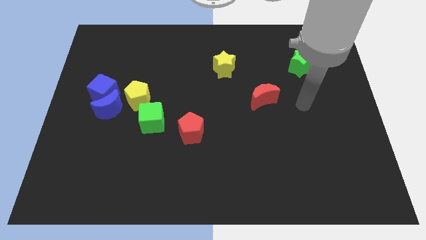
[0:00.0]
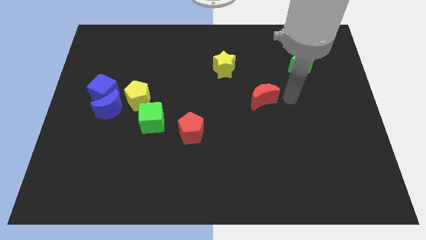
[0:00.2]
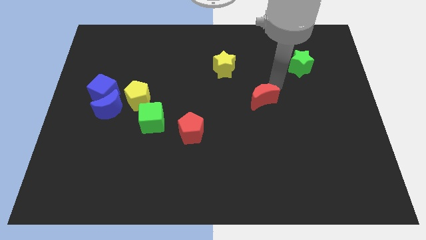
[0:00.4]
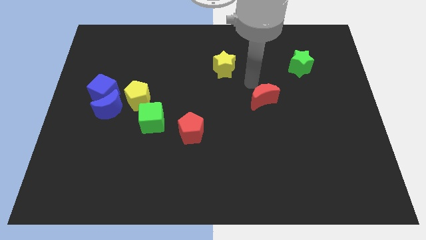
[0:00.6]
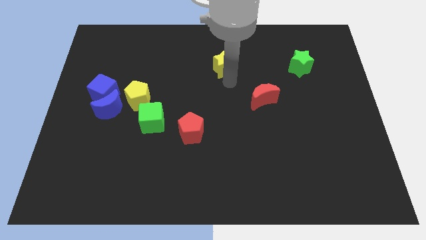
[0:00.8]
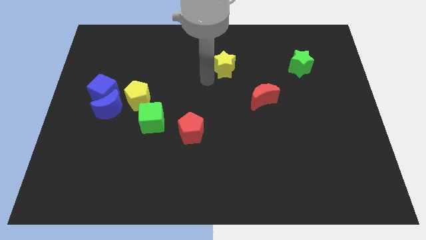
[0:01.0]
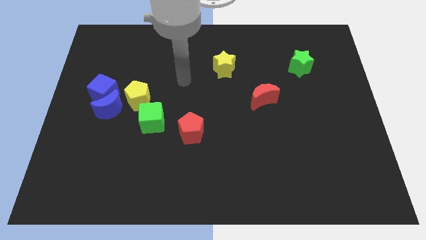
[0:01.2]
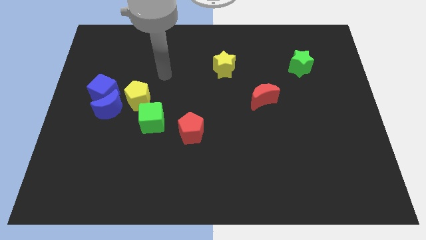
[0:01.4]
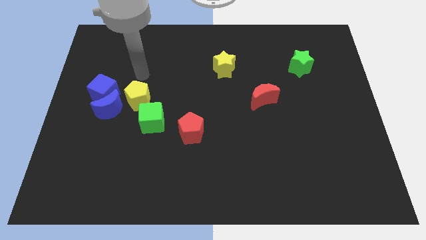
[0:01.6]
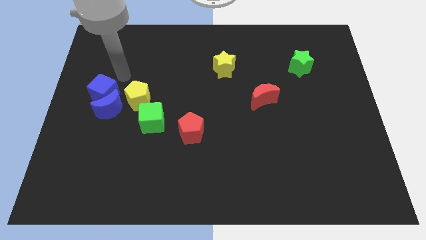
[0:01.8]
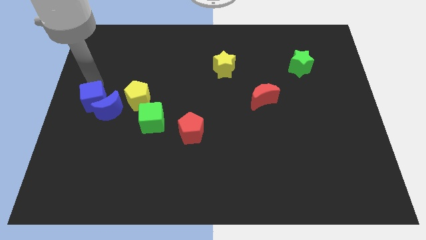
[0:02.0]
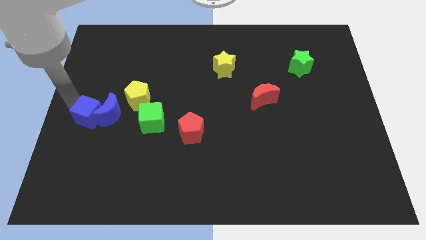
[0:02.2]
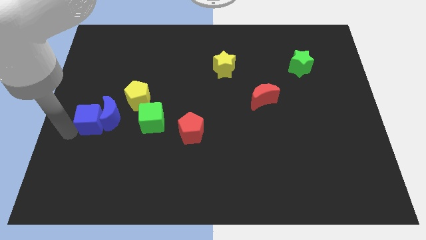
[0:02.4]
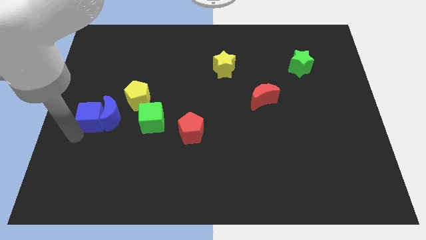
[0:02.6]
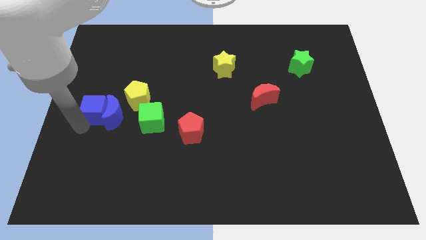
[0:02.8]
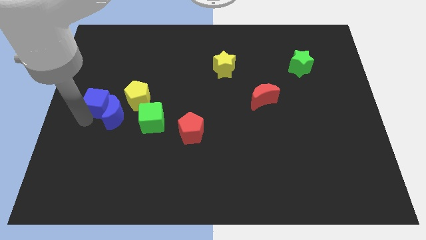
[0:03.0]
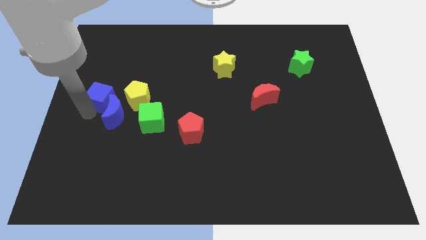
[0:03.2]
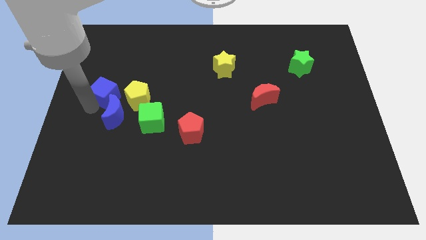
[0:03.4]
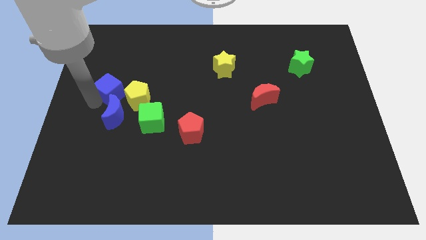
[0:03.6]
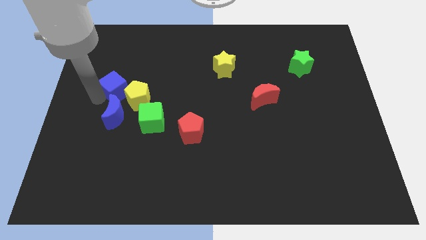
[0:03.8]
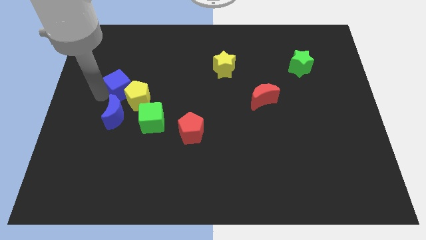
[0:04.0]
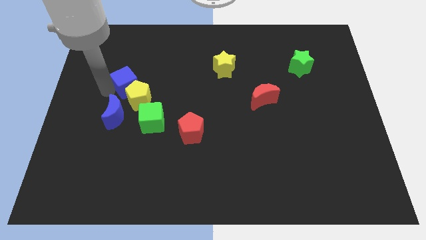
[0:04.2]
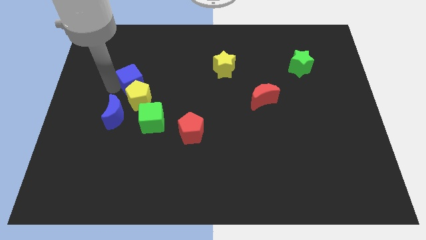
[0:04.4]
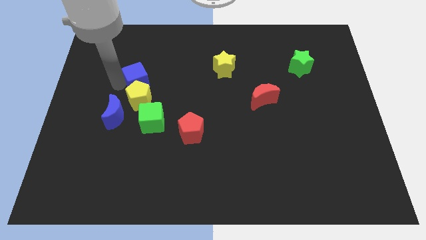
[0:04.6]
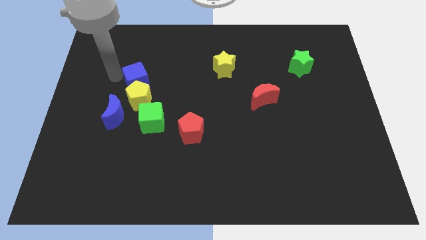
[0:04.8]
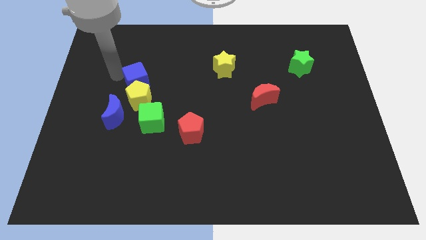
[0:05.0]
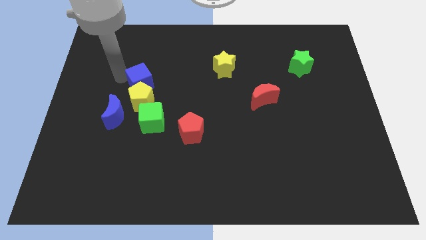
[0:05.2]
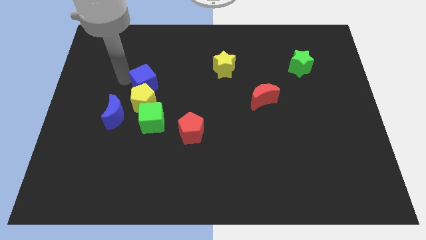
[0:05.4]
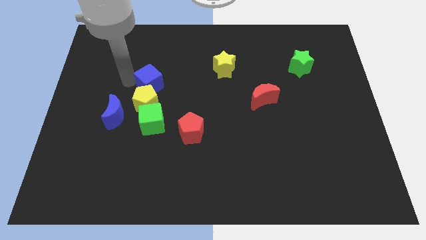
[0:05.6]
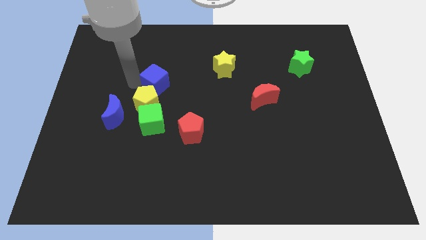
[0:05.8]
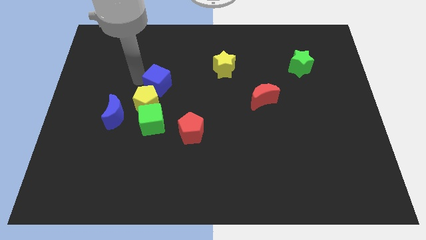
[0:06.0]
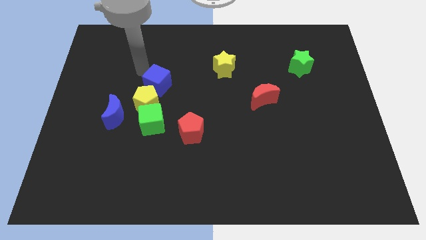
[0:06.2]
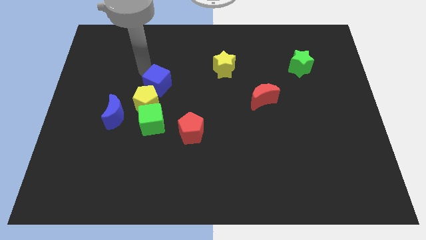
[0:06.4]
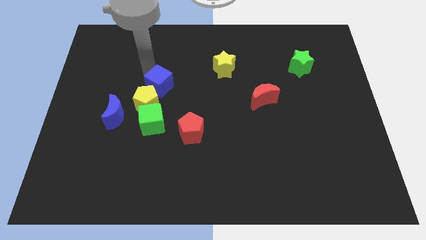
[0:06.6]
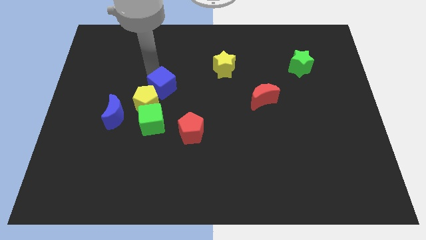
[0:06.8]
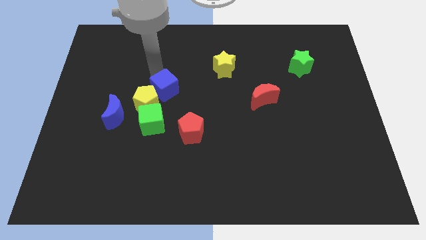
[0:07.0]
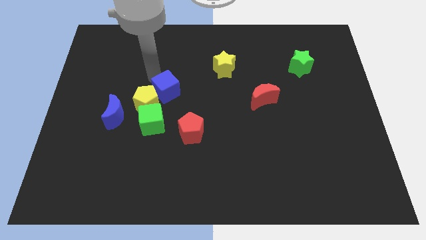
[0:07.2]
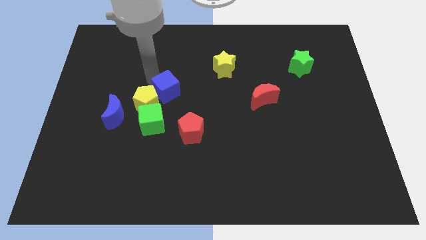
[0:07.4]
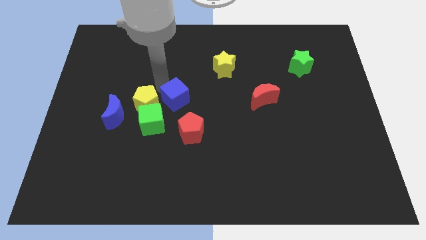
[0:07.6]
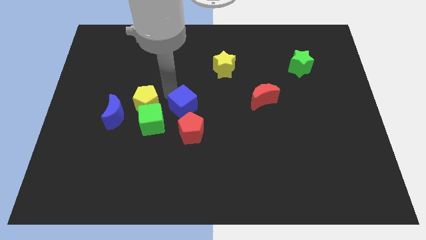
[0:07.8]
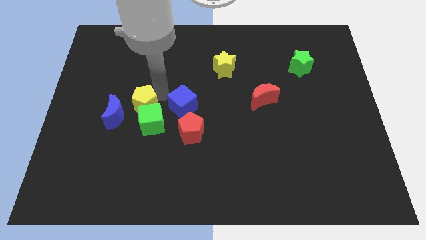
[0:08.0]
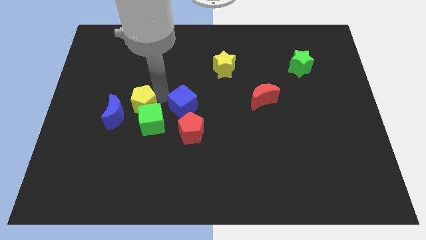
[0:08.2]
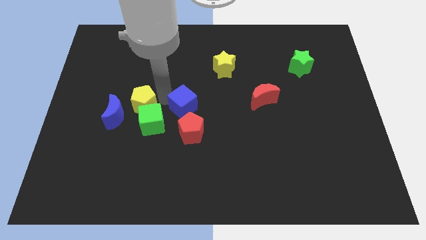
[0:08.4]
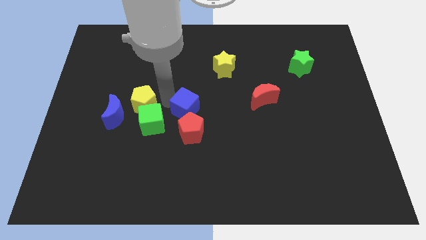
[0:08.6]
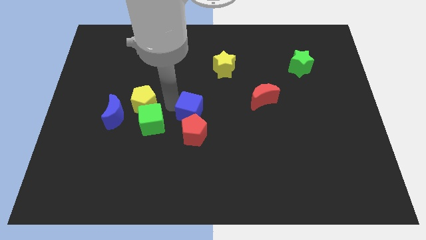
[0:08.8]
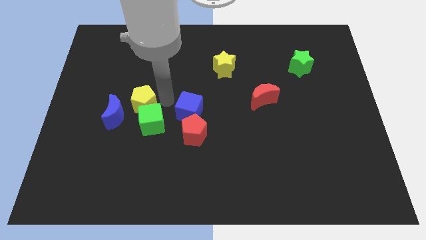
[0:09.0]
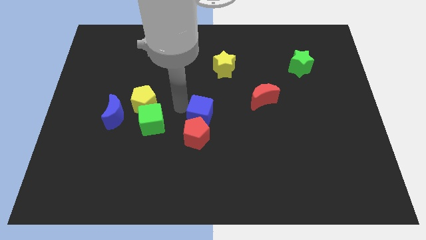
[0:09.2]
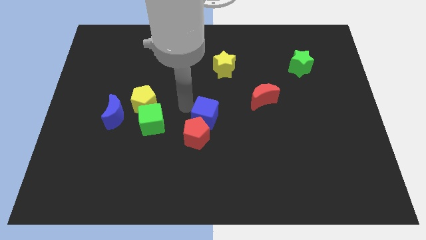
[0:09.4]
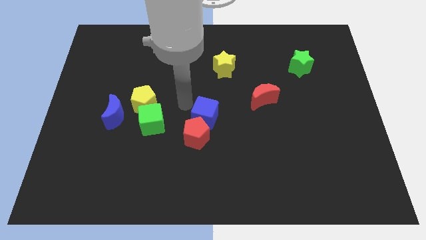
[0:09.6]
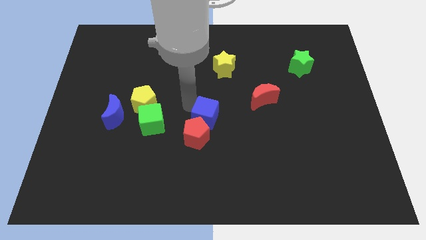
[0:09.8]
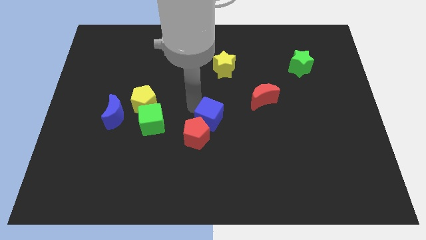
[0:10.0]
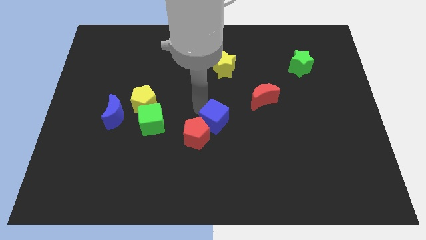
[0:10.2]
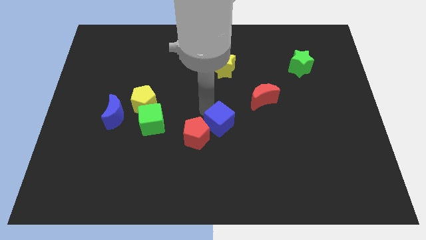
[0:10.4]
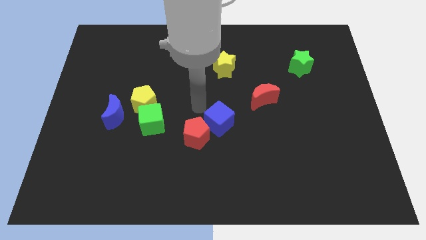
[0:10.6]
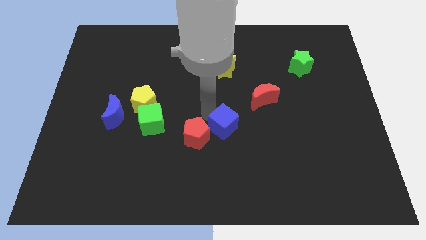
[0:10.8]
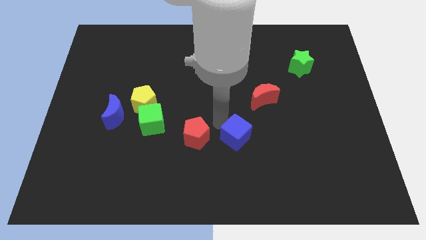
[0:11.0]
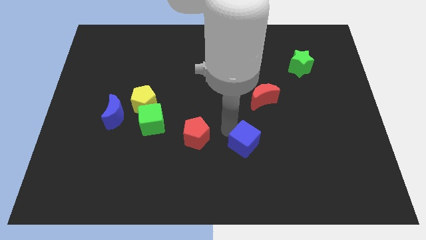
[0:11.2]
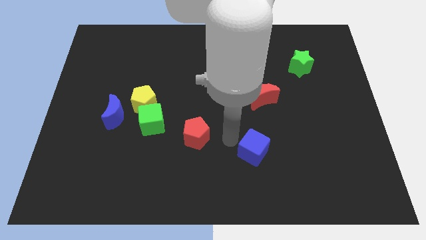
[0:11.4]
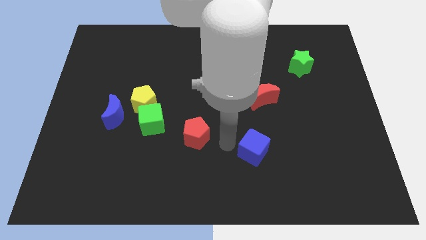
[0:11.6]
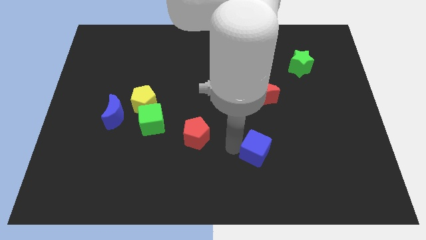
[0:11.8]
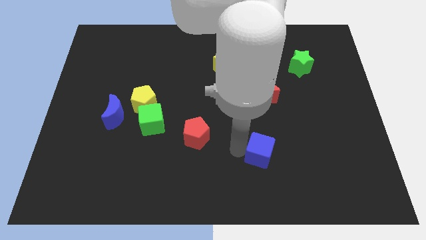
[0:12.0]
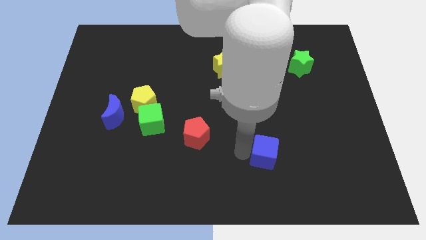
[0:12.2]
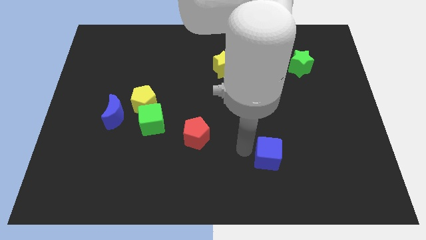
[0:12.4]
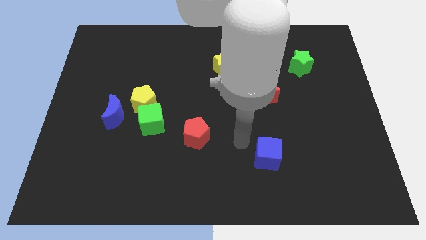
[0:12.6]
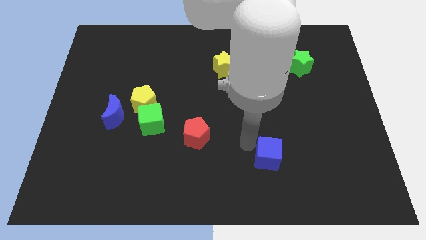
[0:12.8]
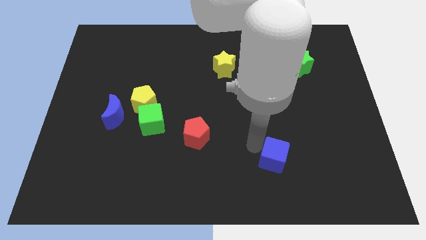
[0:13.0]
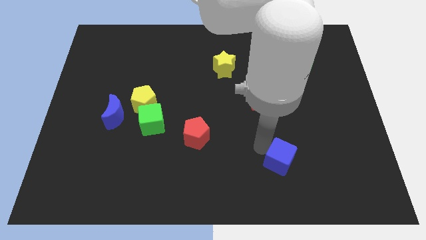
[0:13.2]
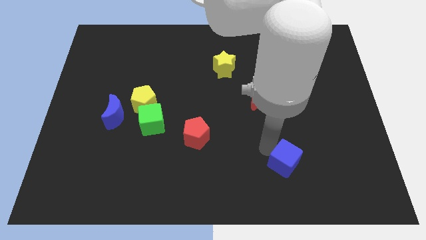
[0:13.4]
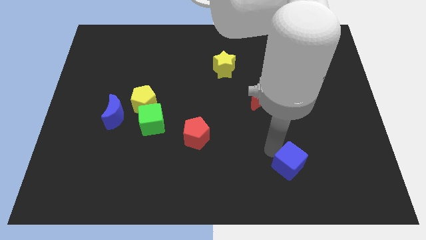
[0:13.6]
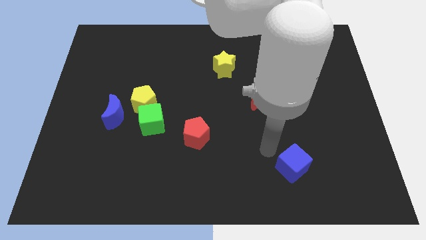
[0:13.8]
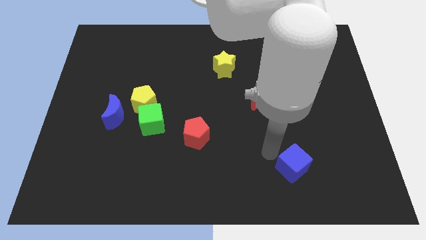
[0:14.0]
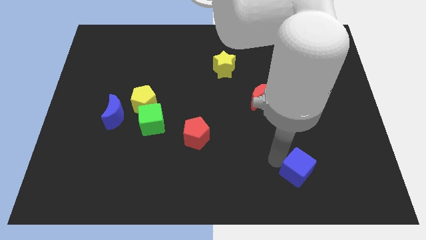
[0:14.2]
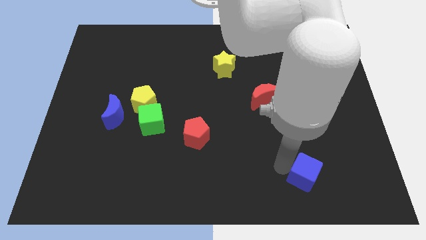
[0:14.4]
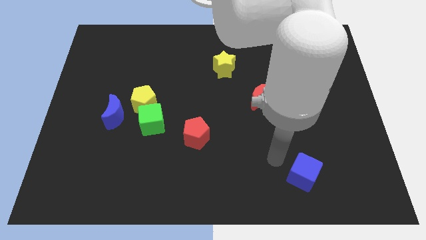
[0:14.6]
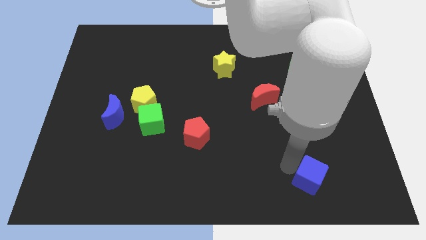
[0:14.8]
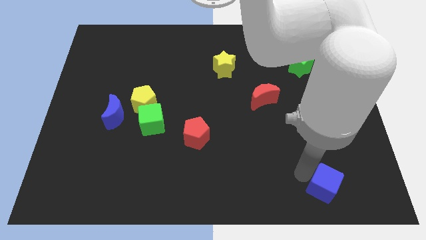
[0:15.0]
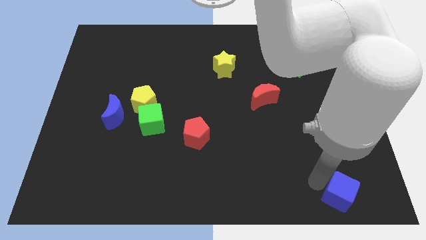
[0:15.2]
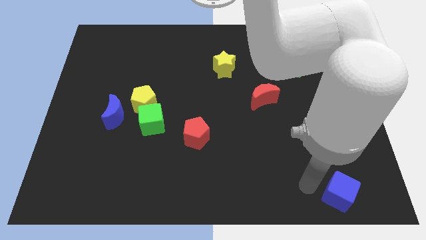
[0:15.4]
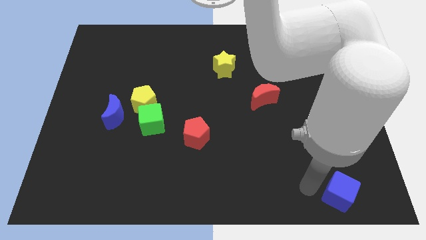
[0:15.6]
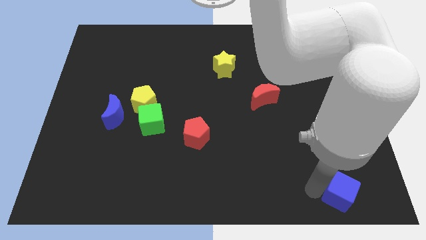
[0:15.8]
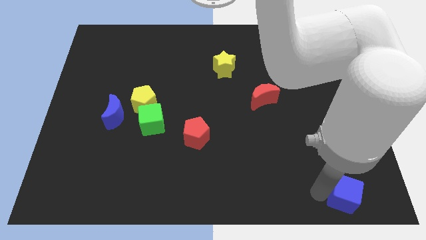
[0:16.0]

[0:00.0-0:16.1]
slide the blue cube to the bottom right corner
